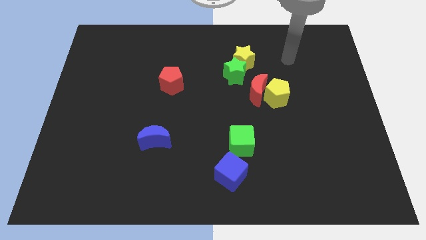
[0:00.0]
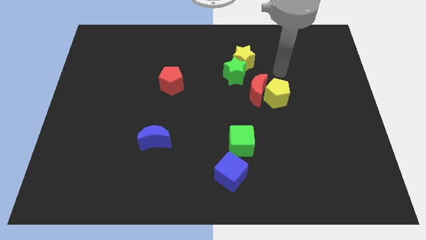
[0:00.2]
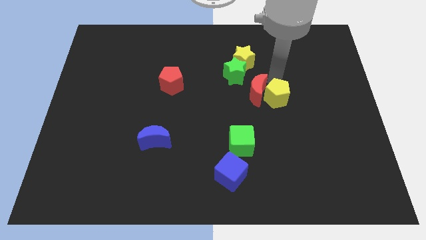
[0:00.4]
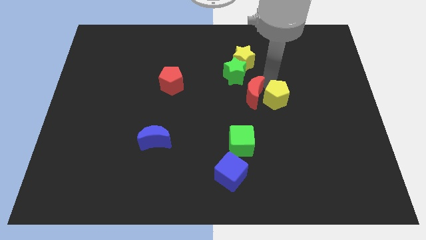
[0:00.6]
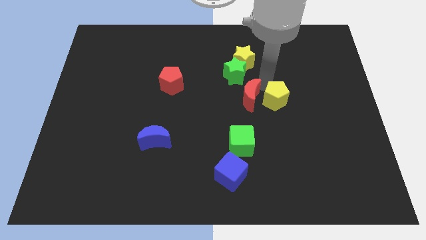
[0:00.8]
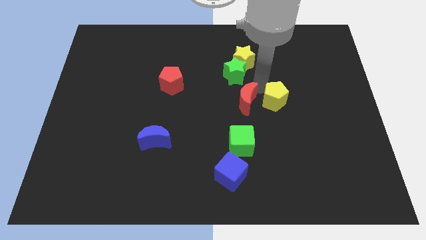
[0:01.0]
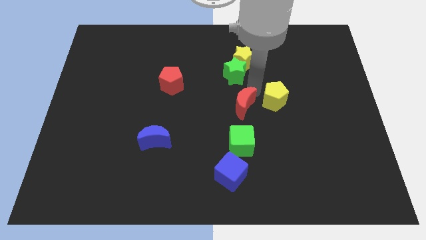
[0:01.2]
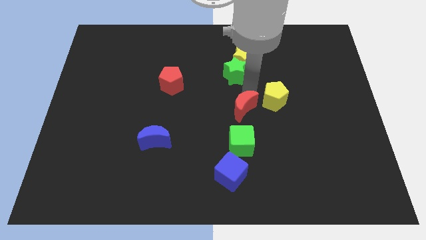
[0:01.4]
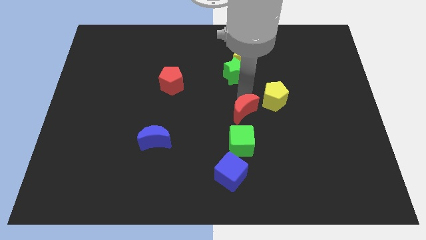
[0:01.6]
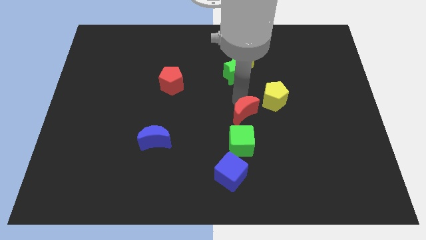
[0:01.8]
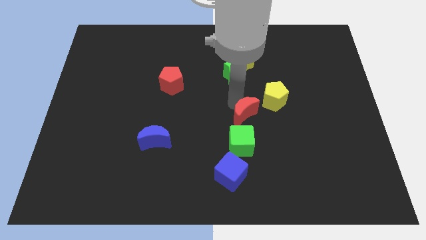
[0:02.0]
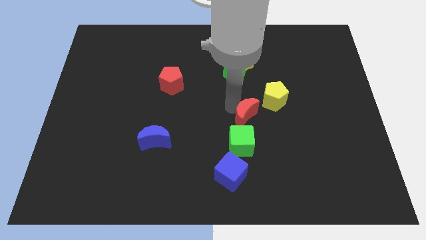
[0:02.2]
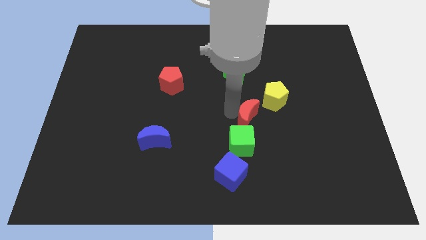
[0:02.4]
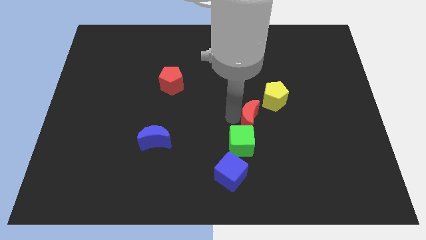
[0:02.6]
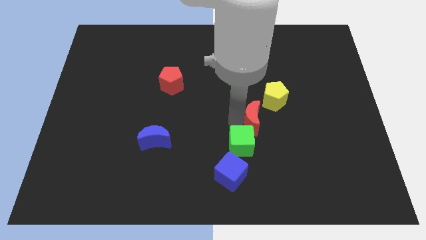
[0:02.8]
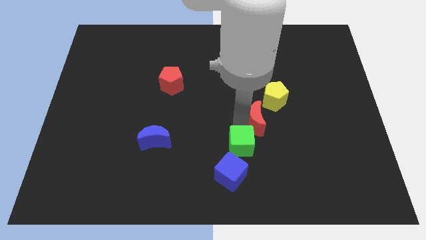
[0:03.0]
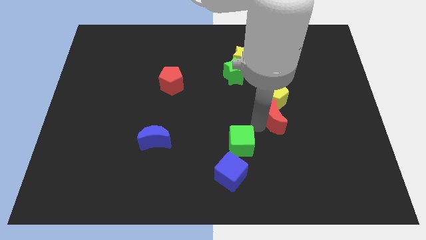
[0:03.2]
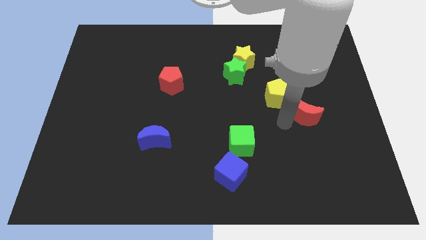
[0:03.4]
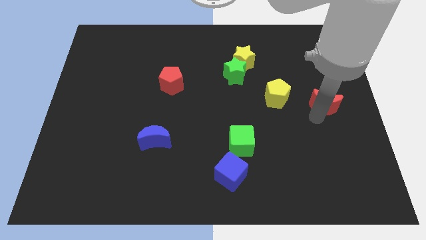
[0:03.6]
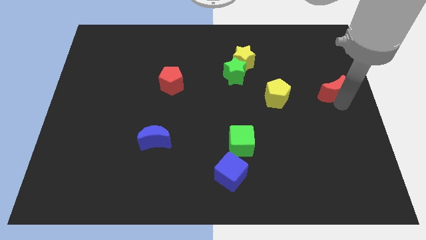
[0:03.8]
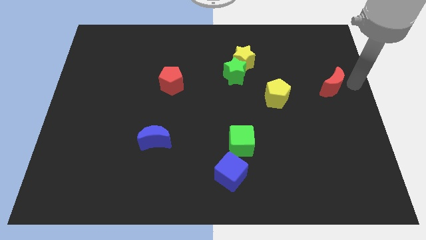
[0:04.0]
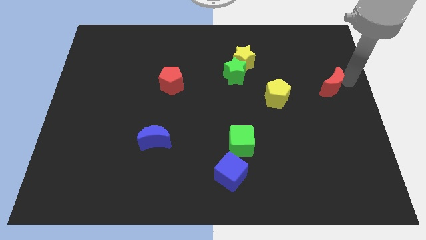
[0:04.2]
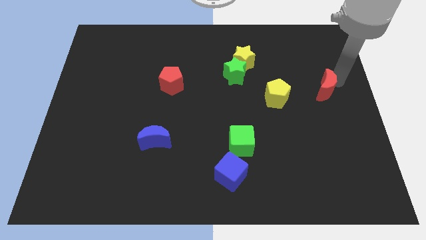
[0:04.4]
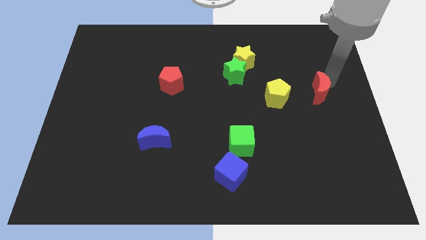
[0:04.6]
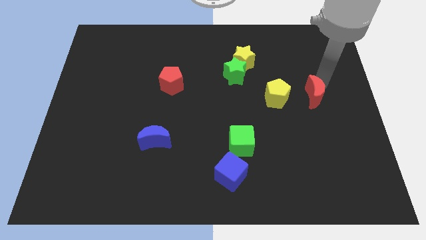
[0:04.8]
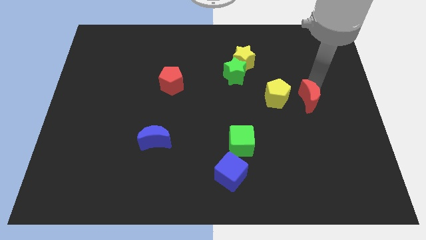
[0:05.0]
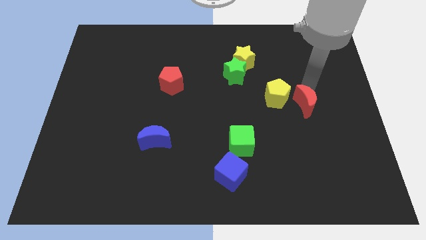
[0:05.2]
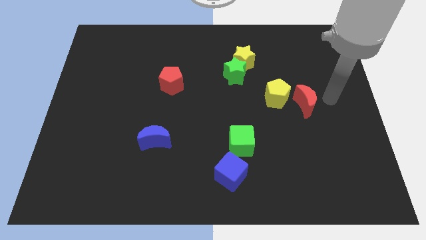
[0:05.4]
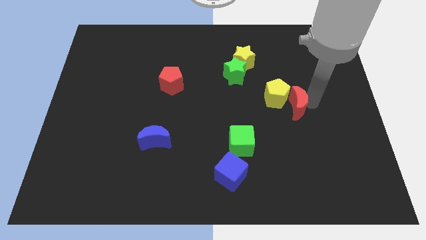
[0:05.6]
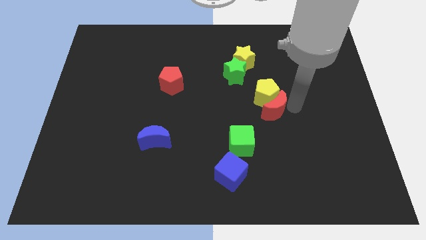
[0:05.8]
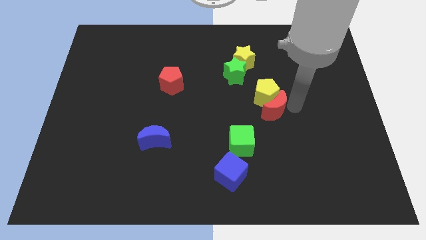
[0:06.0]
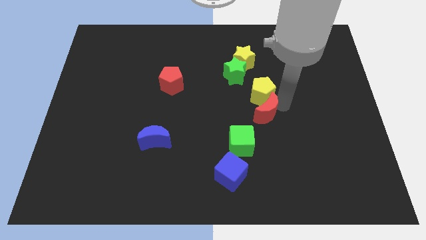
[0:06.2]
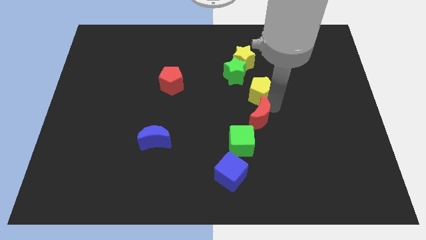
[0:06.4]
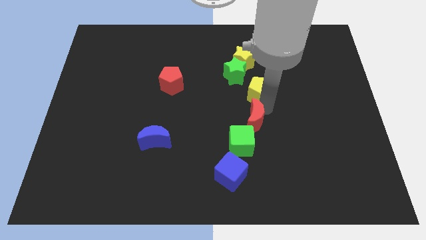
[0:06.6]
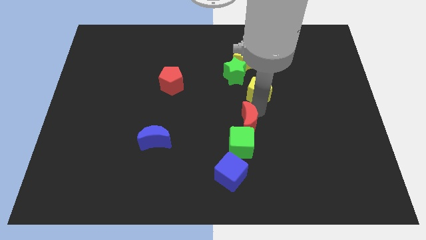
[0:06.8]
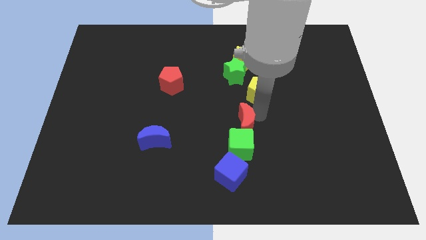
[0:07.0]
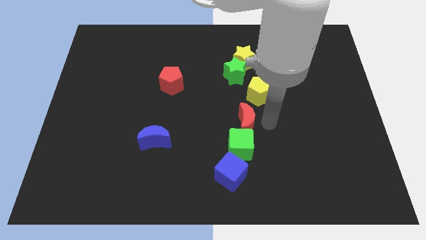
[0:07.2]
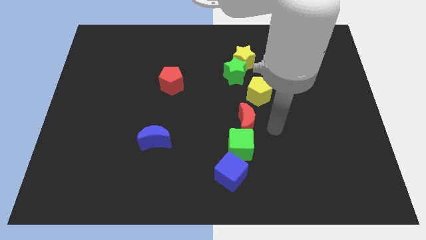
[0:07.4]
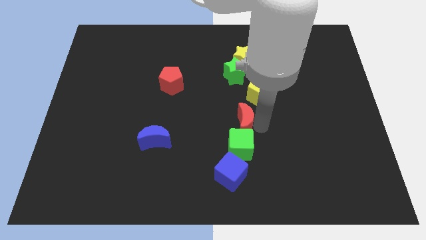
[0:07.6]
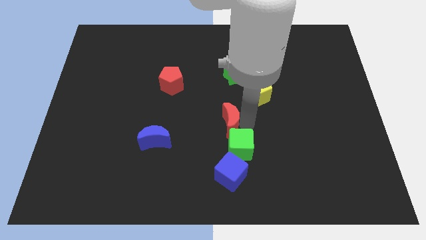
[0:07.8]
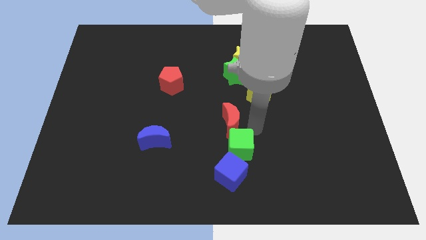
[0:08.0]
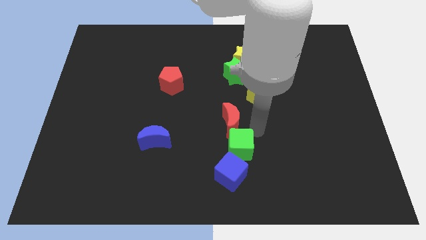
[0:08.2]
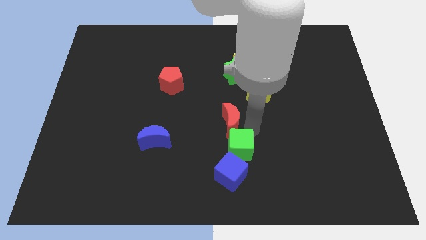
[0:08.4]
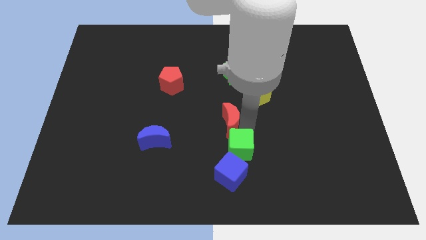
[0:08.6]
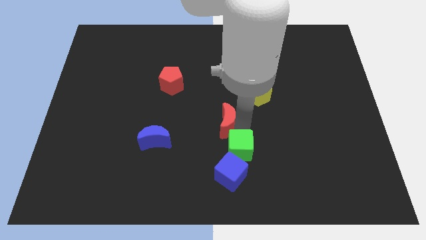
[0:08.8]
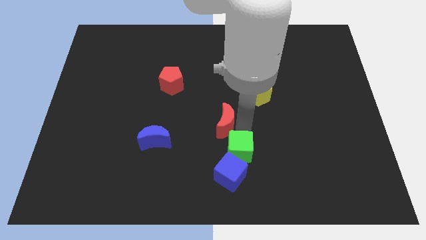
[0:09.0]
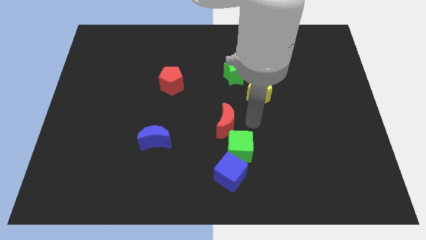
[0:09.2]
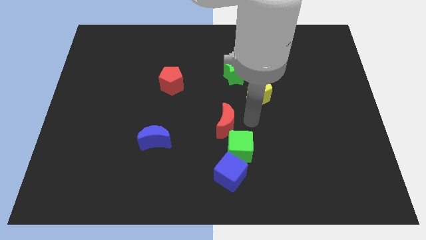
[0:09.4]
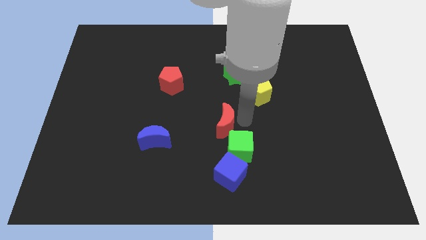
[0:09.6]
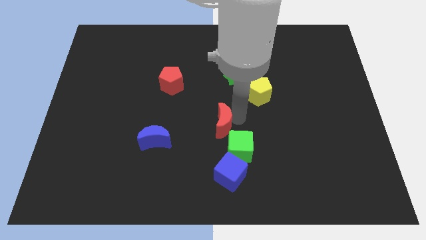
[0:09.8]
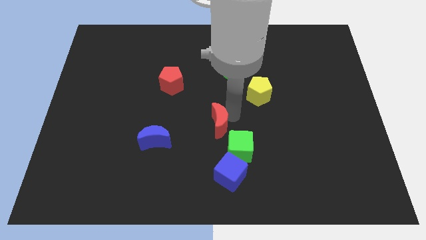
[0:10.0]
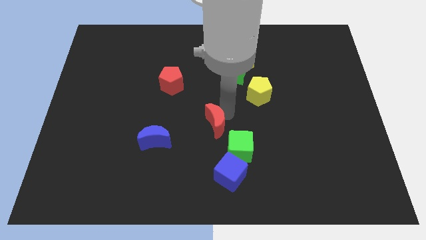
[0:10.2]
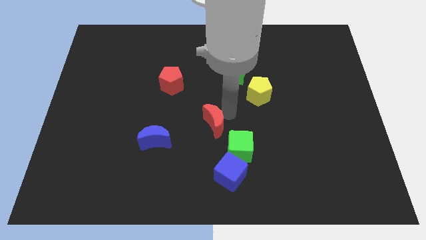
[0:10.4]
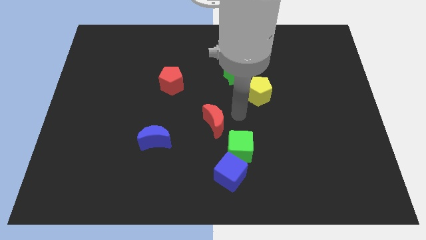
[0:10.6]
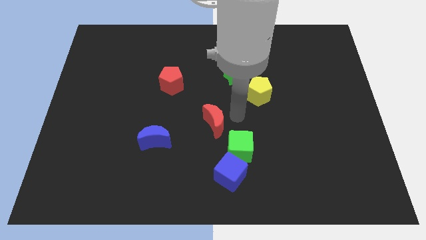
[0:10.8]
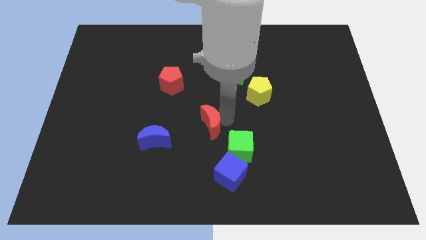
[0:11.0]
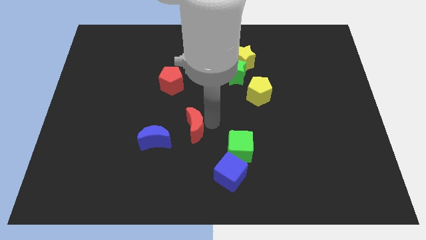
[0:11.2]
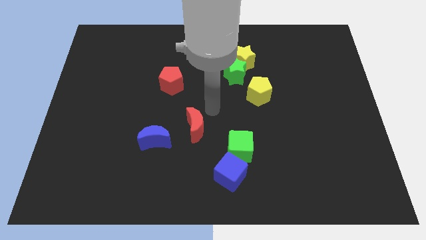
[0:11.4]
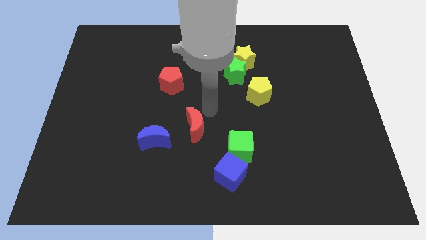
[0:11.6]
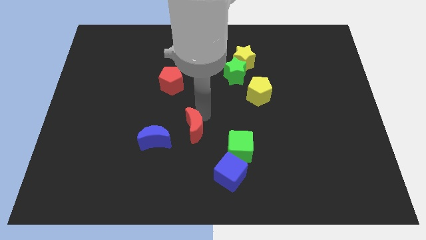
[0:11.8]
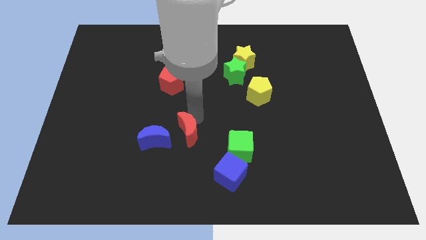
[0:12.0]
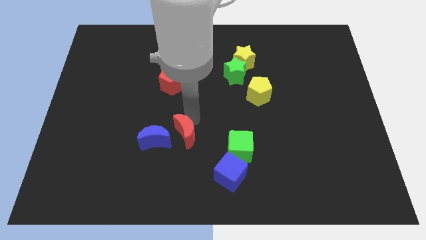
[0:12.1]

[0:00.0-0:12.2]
slide the red moon down and to the left diagonally

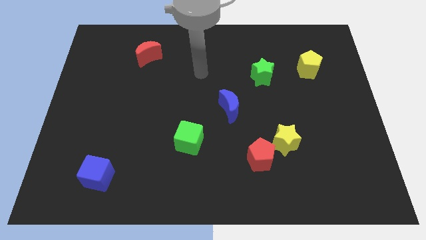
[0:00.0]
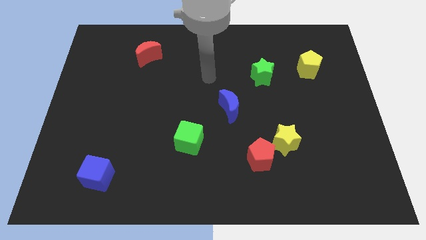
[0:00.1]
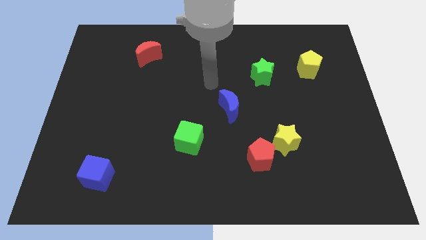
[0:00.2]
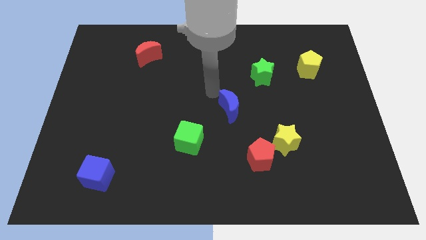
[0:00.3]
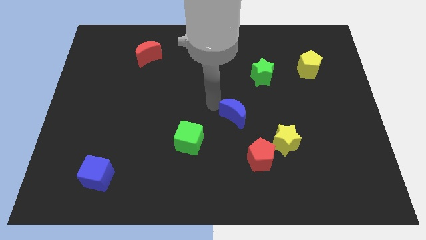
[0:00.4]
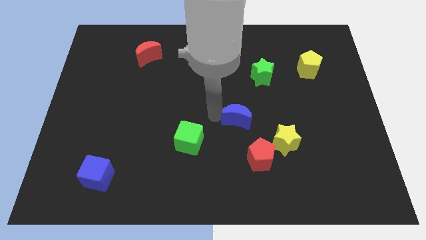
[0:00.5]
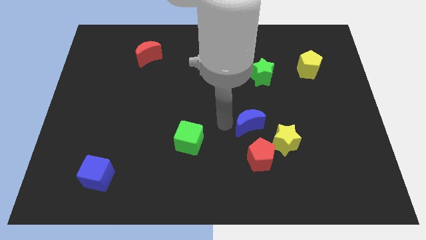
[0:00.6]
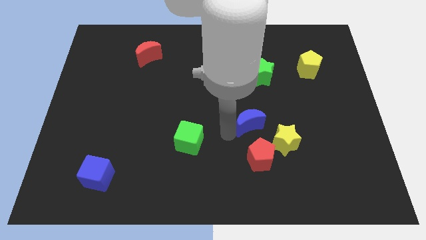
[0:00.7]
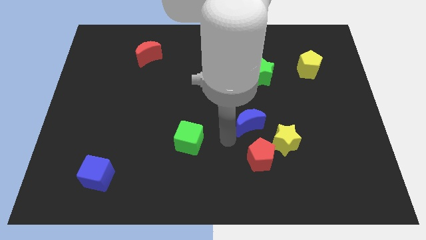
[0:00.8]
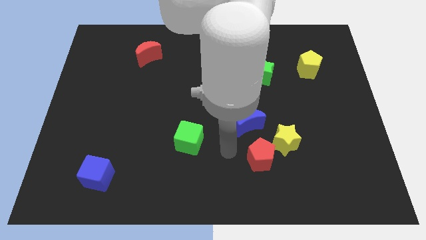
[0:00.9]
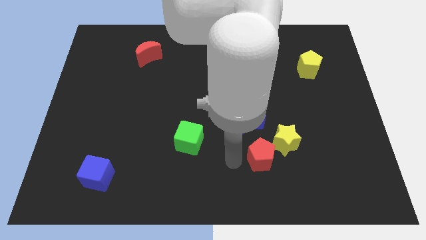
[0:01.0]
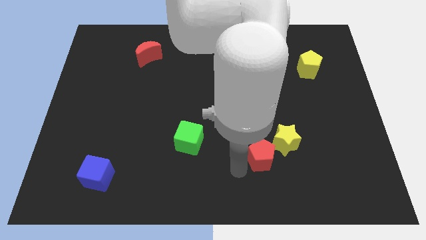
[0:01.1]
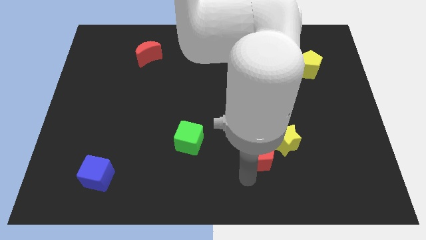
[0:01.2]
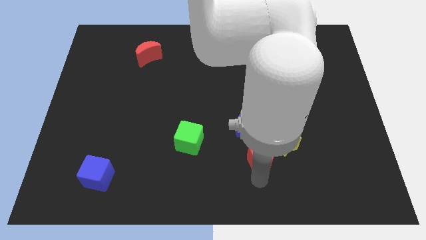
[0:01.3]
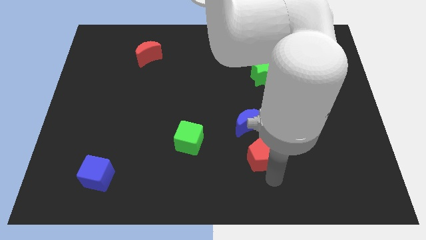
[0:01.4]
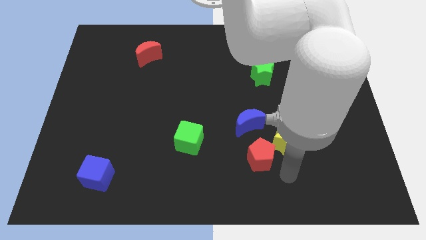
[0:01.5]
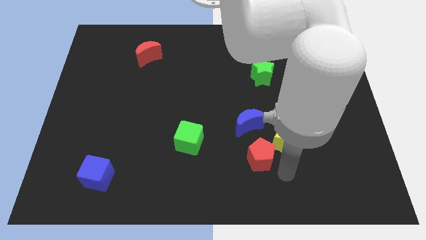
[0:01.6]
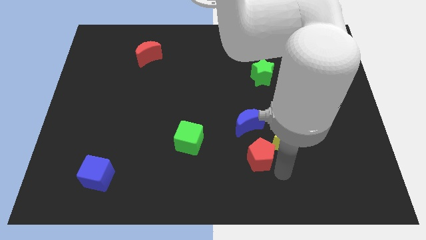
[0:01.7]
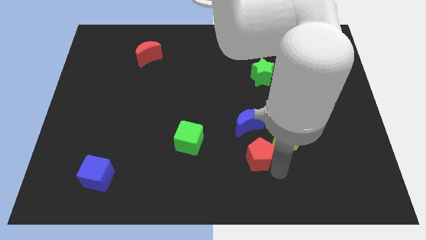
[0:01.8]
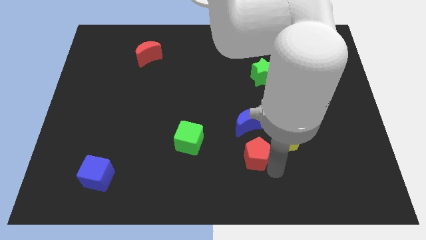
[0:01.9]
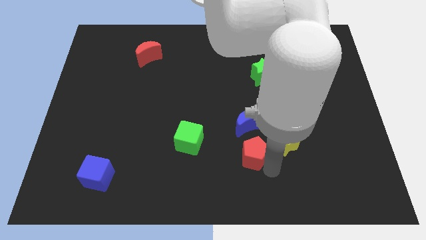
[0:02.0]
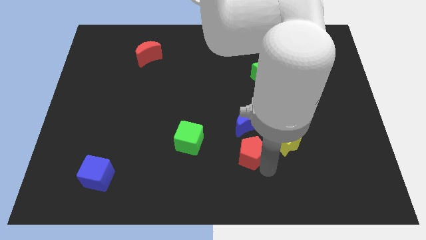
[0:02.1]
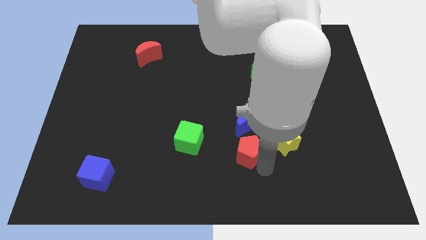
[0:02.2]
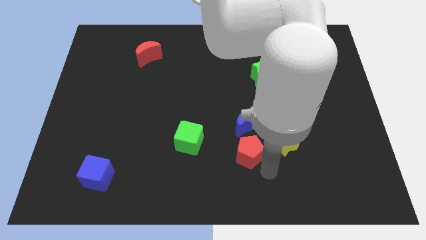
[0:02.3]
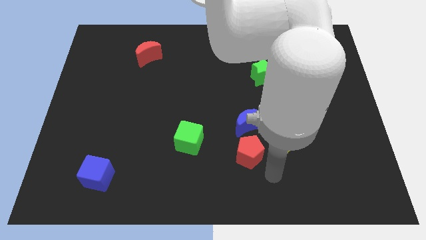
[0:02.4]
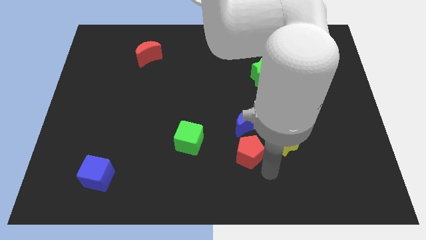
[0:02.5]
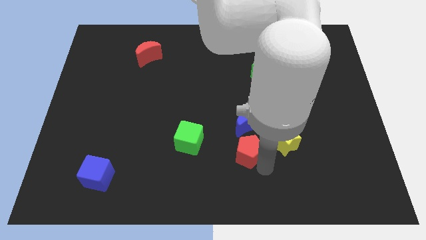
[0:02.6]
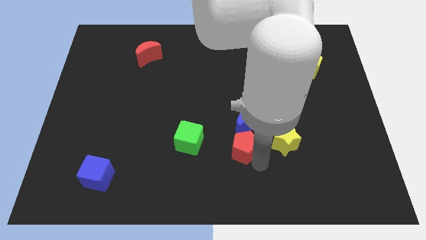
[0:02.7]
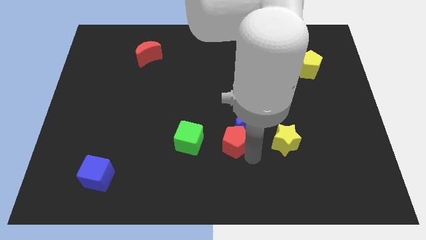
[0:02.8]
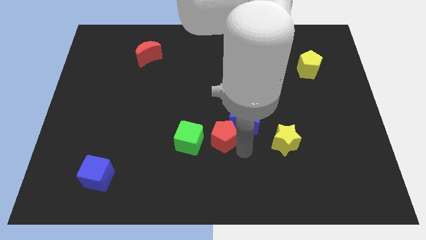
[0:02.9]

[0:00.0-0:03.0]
move the red pentagon diagonally upwards and to the left a little
